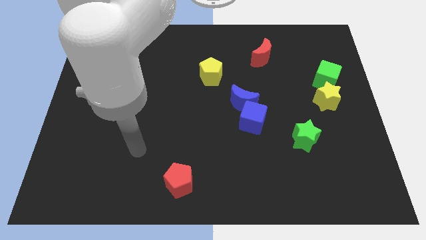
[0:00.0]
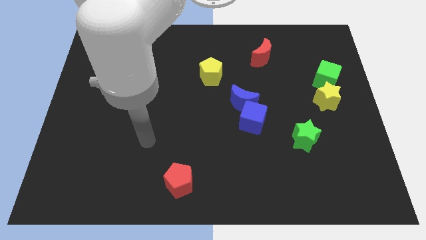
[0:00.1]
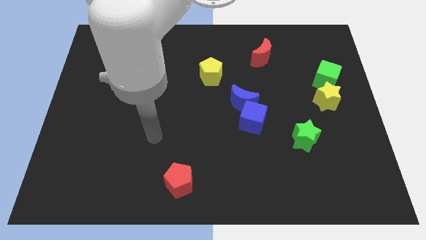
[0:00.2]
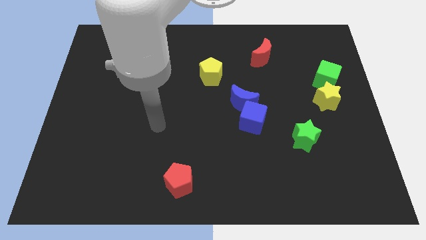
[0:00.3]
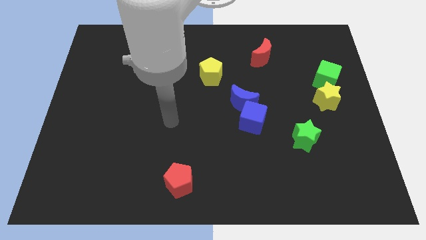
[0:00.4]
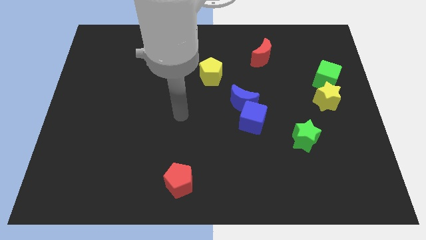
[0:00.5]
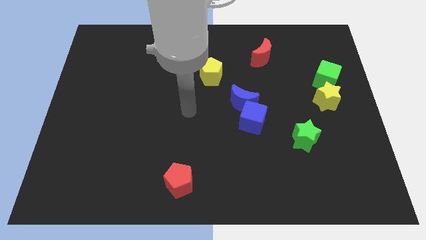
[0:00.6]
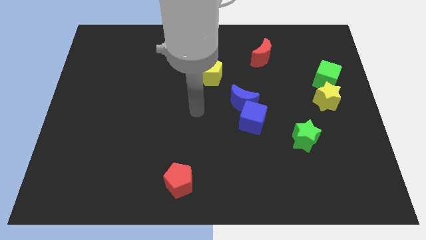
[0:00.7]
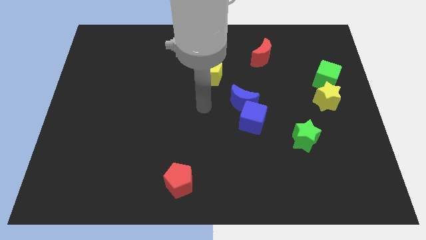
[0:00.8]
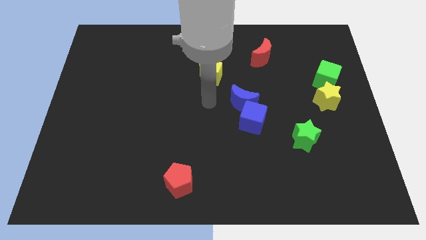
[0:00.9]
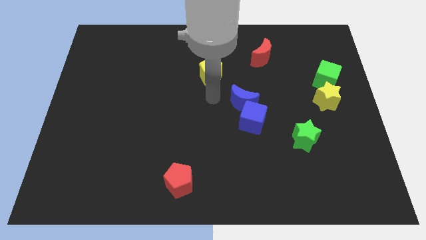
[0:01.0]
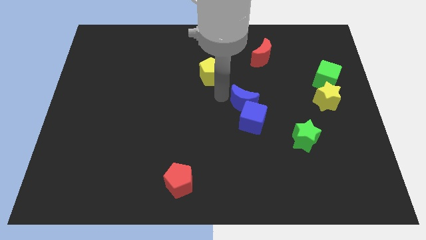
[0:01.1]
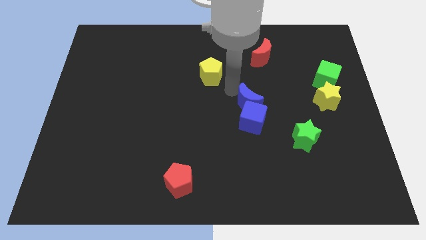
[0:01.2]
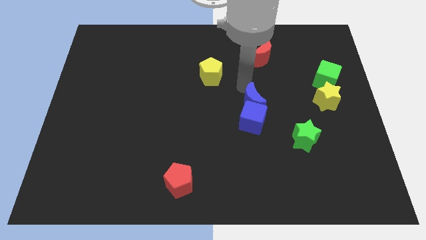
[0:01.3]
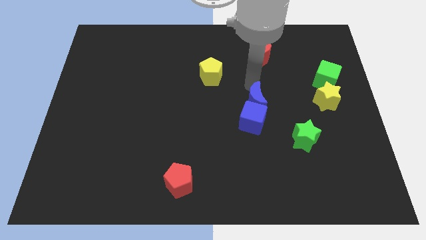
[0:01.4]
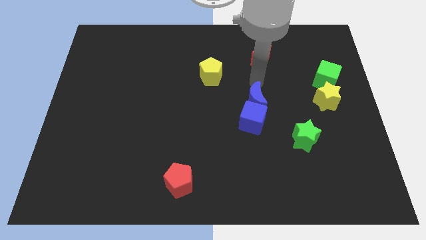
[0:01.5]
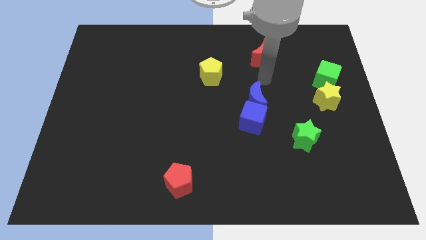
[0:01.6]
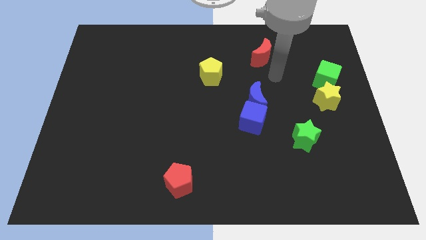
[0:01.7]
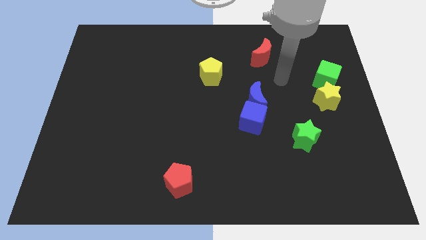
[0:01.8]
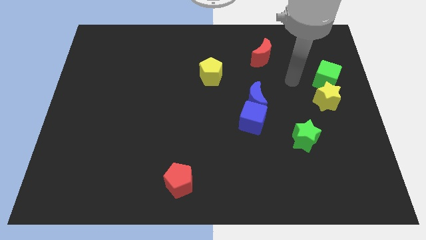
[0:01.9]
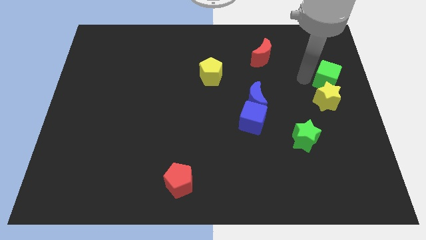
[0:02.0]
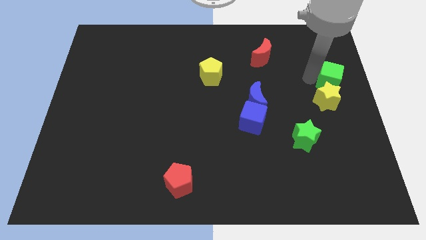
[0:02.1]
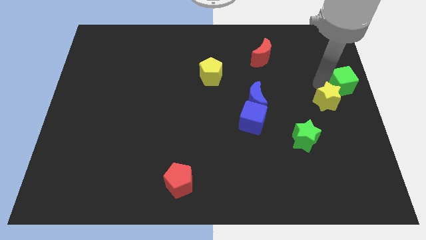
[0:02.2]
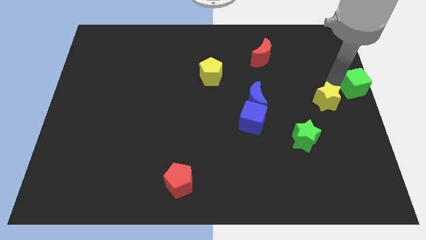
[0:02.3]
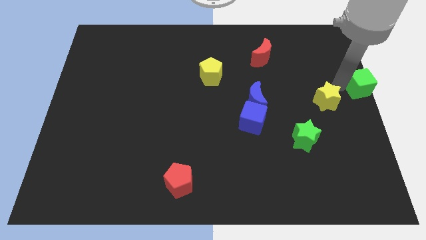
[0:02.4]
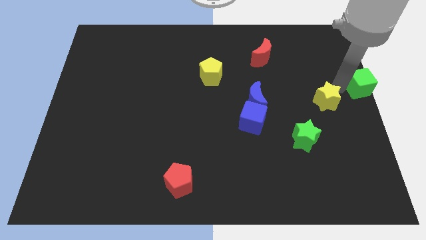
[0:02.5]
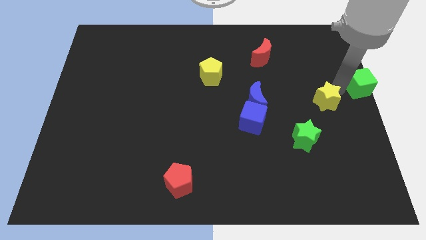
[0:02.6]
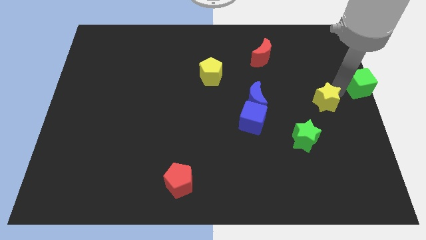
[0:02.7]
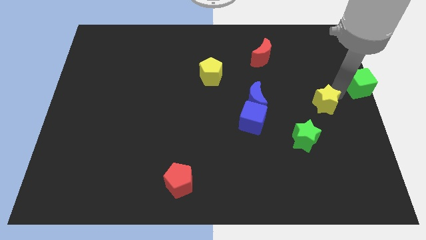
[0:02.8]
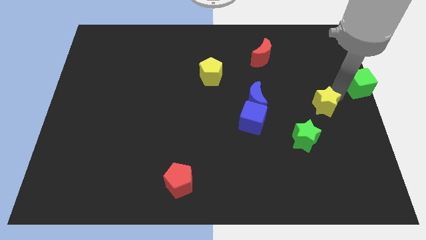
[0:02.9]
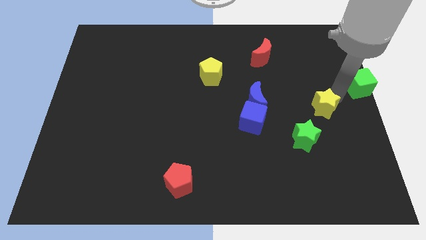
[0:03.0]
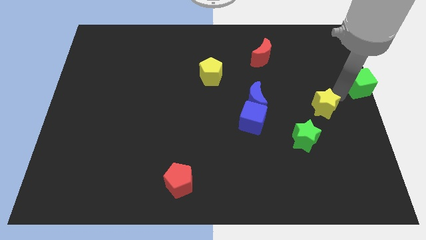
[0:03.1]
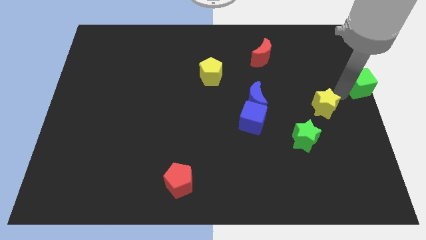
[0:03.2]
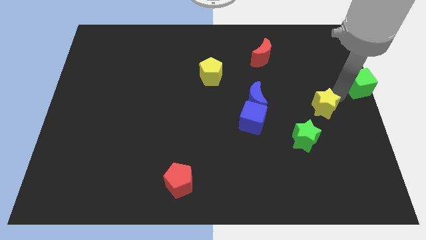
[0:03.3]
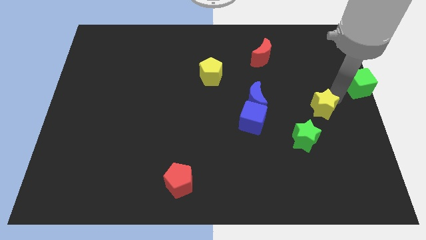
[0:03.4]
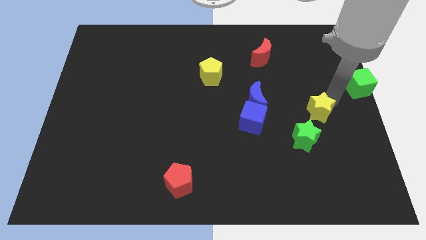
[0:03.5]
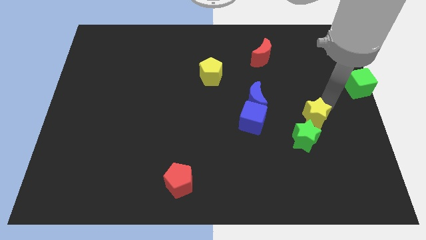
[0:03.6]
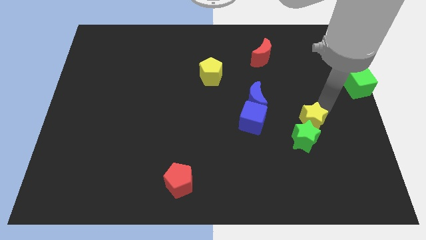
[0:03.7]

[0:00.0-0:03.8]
push the yellow star diagonally downwards and left somewhat

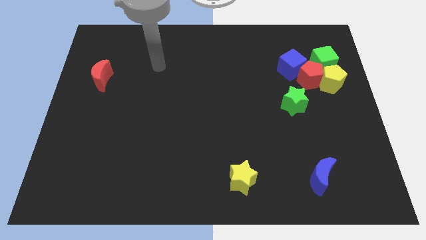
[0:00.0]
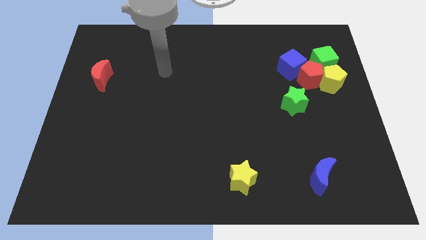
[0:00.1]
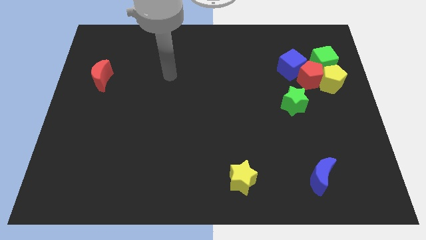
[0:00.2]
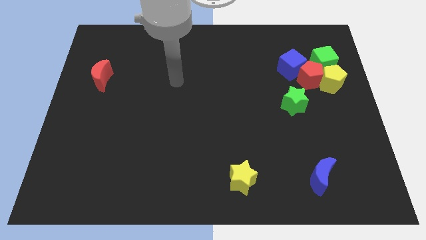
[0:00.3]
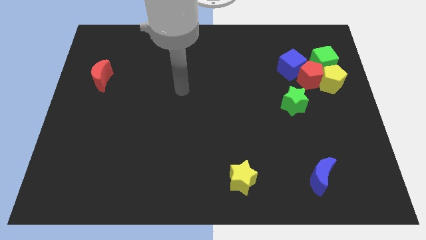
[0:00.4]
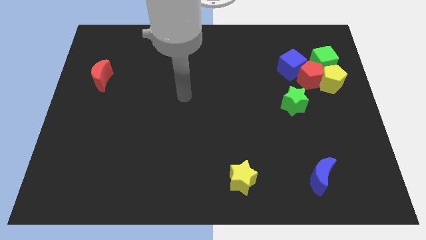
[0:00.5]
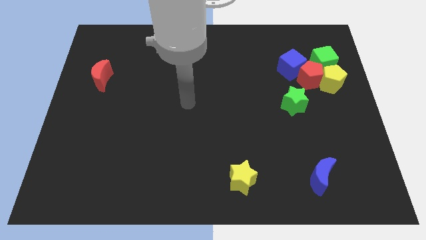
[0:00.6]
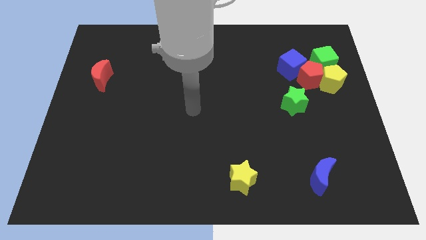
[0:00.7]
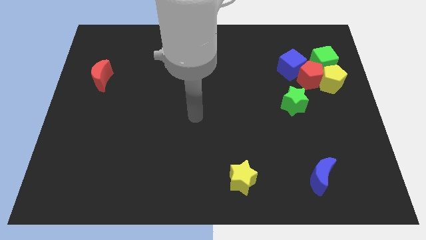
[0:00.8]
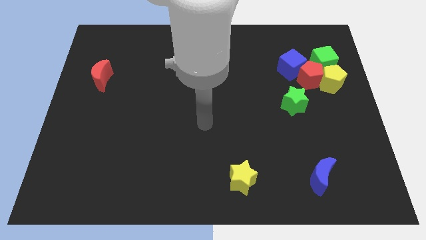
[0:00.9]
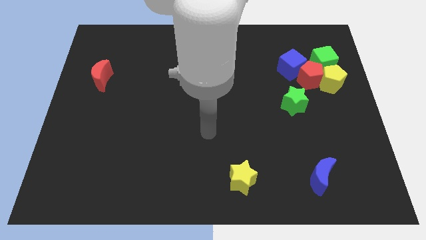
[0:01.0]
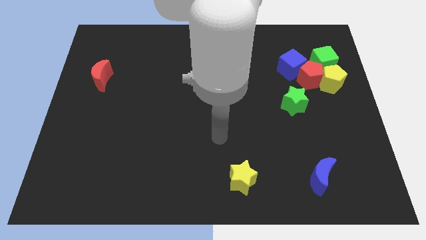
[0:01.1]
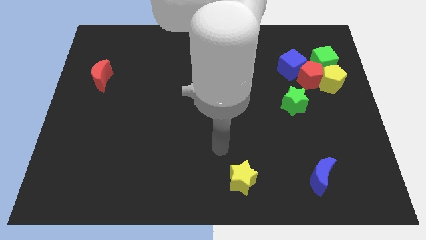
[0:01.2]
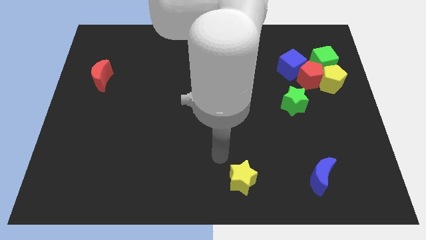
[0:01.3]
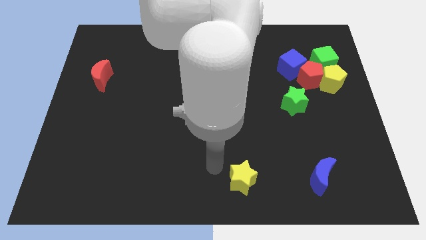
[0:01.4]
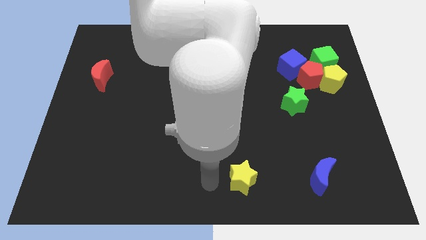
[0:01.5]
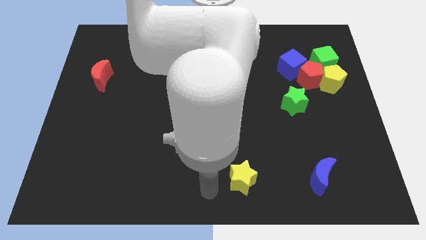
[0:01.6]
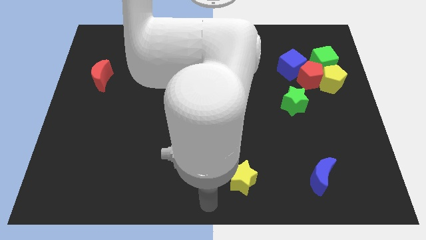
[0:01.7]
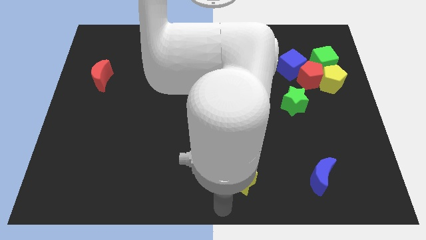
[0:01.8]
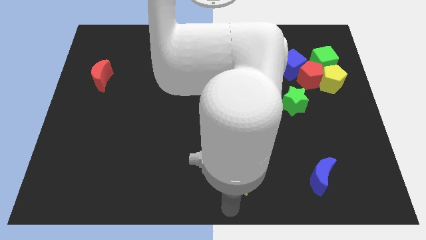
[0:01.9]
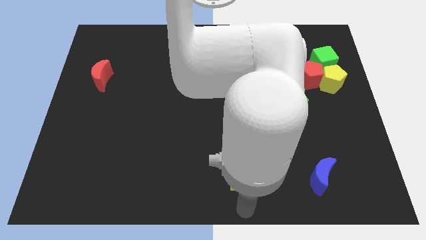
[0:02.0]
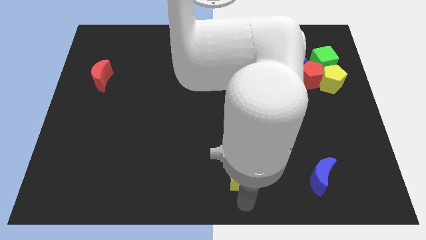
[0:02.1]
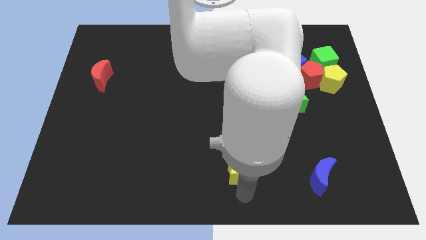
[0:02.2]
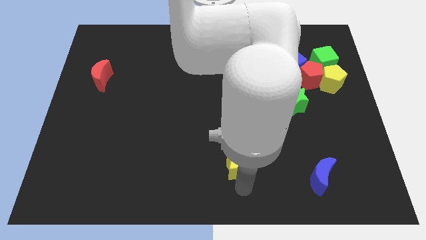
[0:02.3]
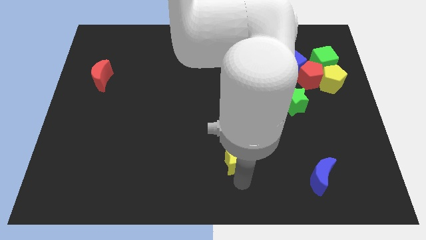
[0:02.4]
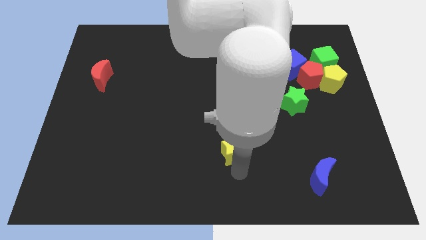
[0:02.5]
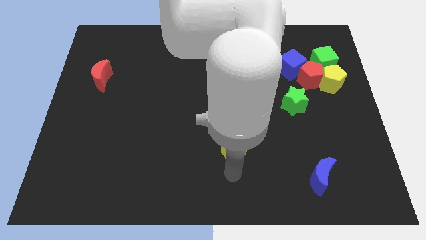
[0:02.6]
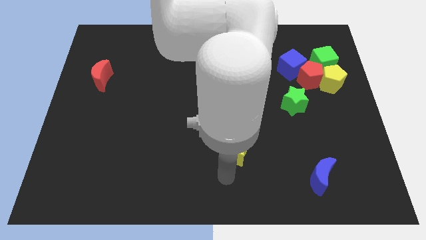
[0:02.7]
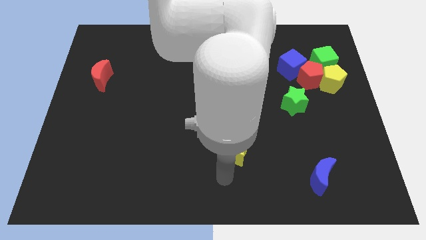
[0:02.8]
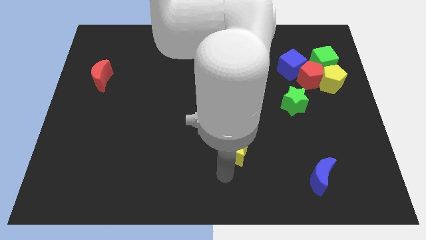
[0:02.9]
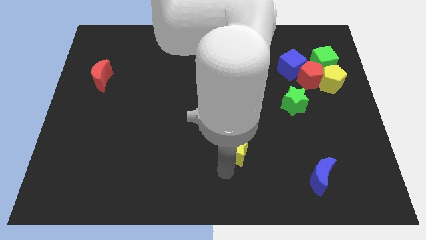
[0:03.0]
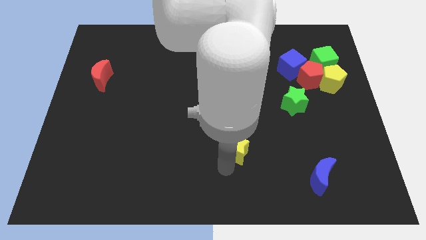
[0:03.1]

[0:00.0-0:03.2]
slightly slide the yellow star up

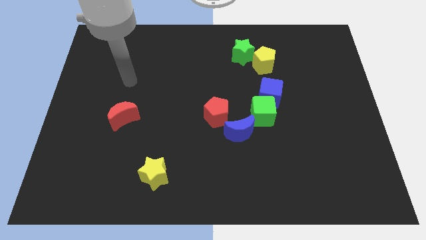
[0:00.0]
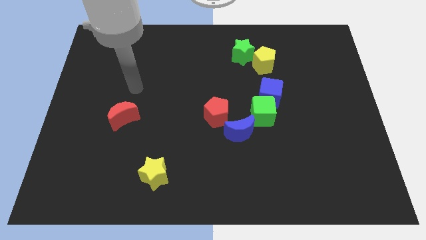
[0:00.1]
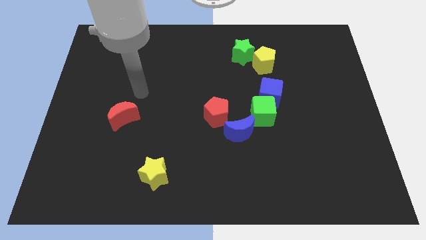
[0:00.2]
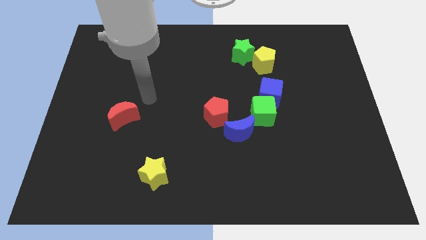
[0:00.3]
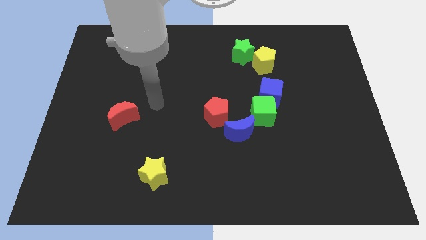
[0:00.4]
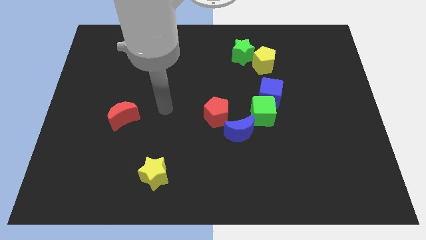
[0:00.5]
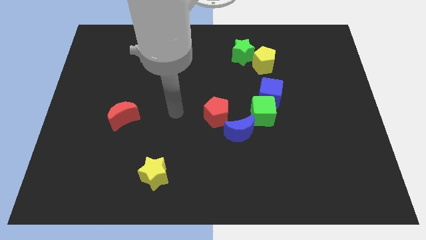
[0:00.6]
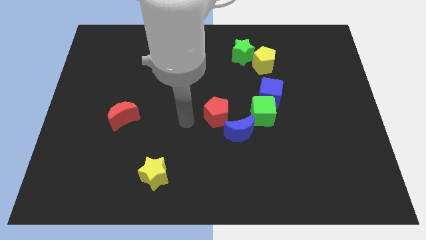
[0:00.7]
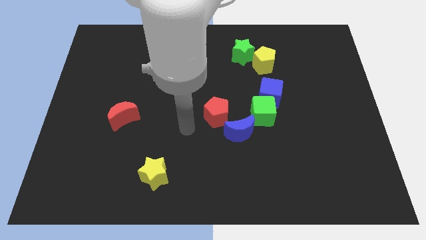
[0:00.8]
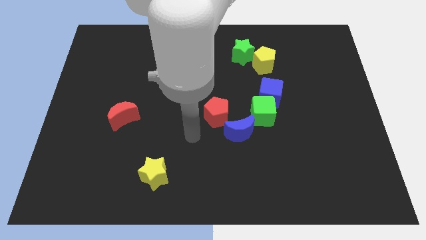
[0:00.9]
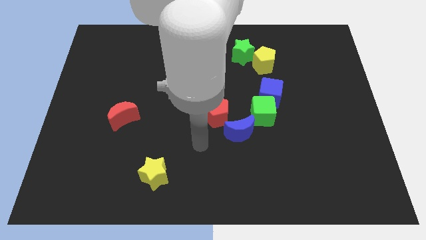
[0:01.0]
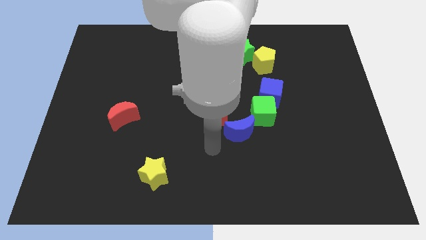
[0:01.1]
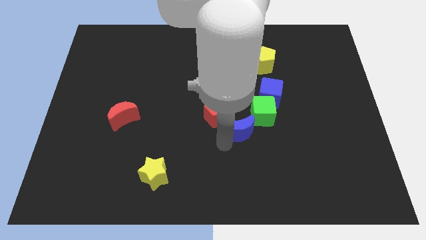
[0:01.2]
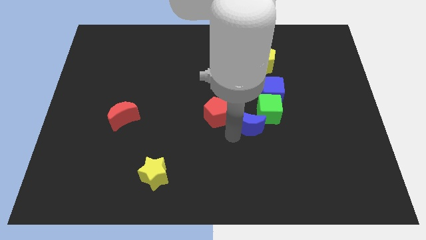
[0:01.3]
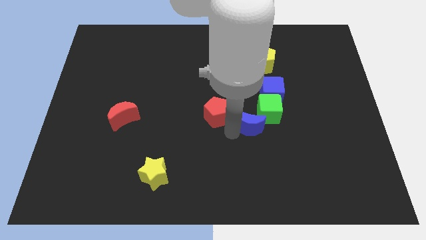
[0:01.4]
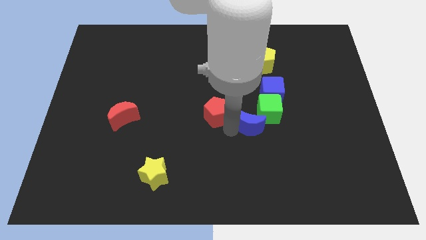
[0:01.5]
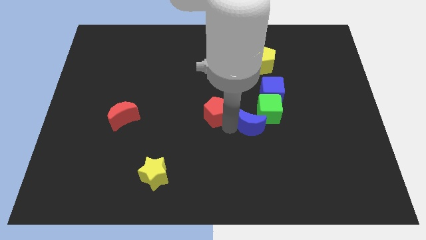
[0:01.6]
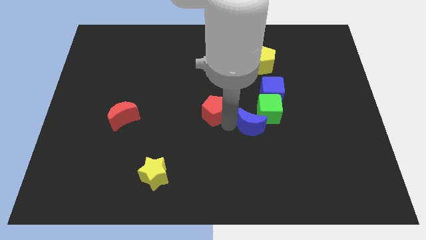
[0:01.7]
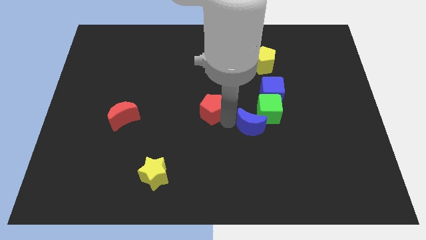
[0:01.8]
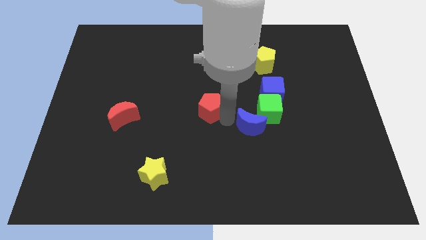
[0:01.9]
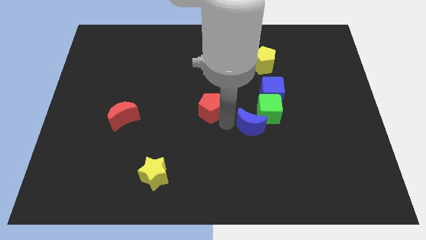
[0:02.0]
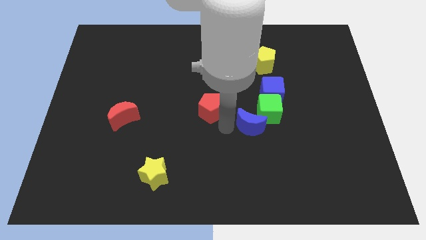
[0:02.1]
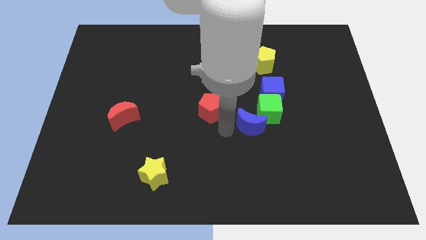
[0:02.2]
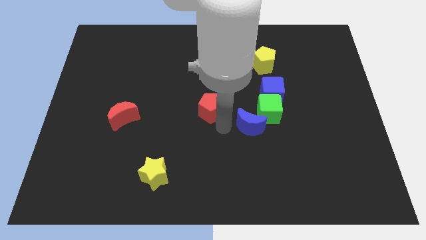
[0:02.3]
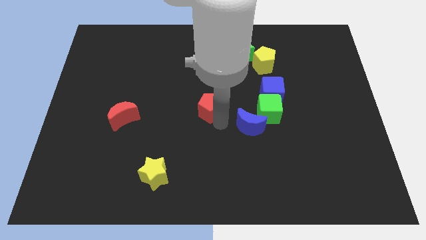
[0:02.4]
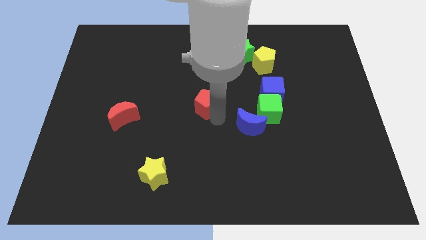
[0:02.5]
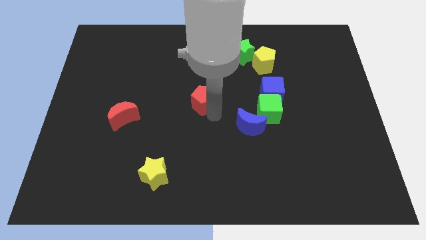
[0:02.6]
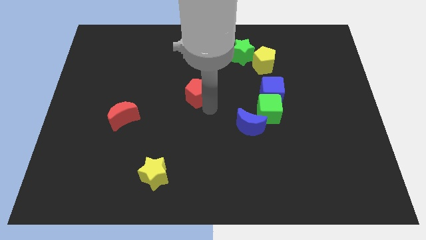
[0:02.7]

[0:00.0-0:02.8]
slightly push the red pentagon upwards and to the left
